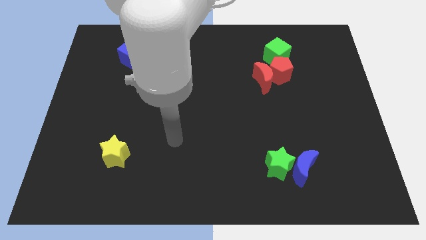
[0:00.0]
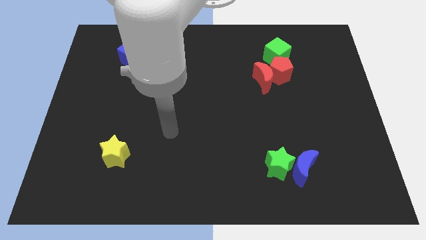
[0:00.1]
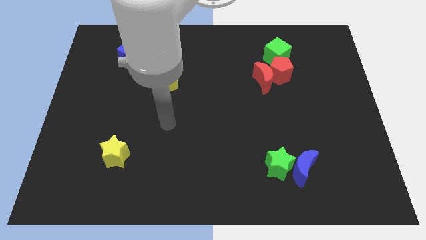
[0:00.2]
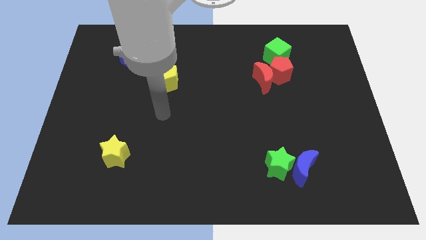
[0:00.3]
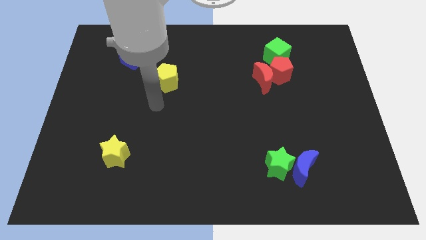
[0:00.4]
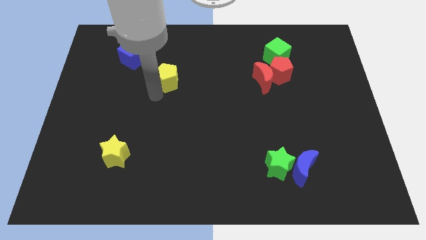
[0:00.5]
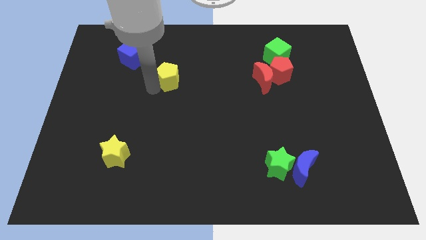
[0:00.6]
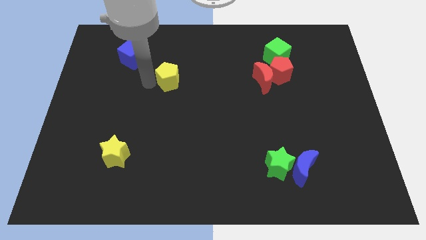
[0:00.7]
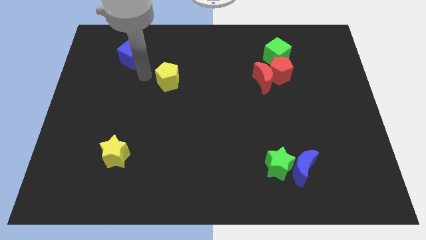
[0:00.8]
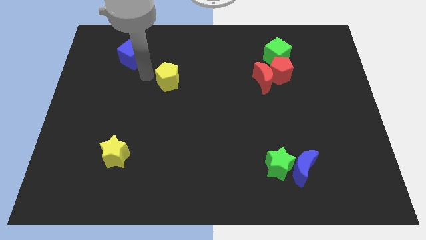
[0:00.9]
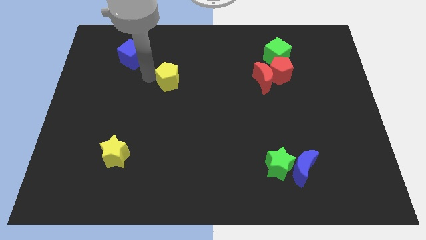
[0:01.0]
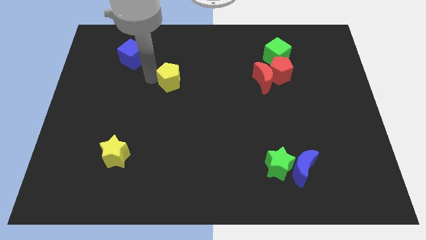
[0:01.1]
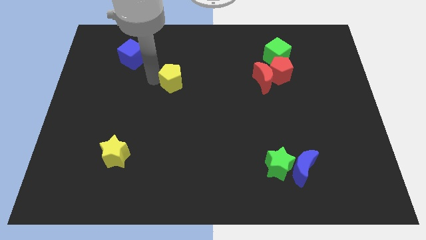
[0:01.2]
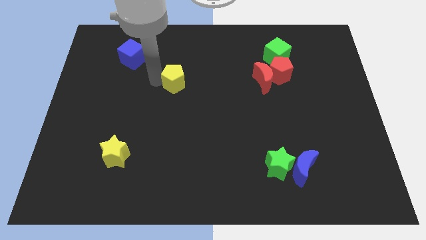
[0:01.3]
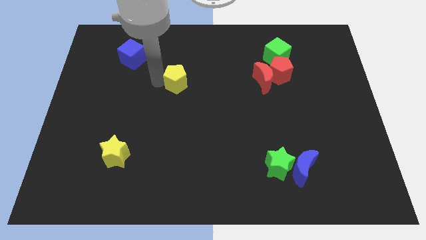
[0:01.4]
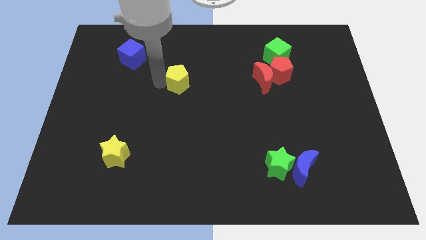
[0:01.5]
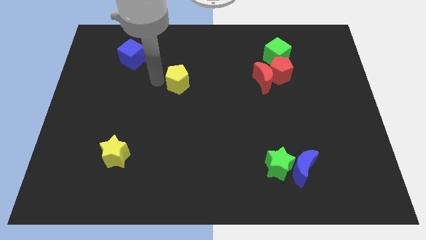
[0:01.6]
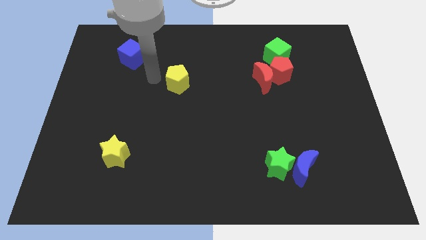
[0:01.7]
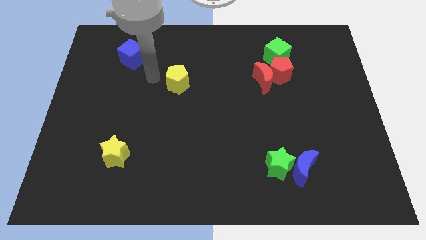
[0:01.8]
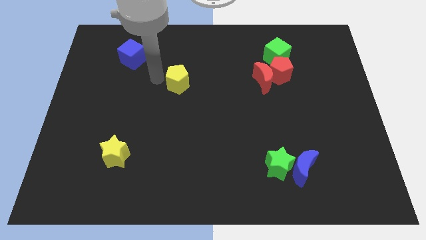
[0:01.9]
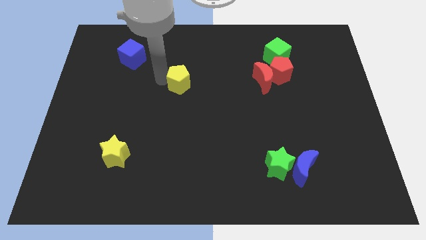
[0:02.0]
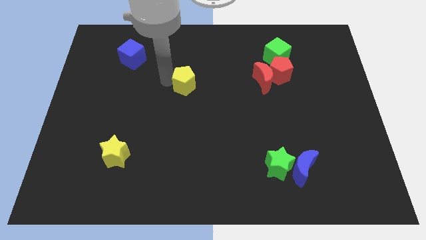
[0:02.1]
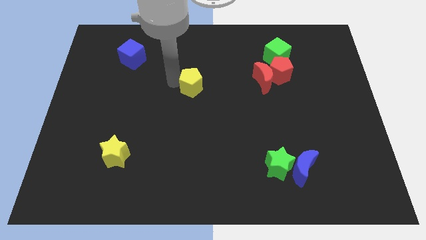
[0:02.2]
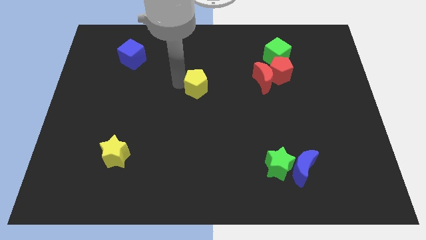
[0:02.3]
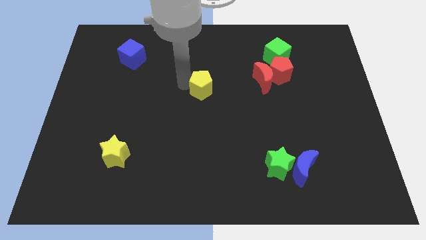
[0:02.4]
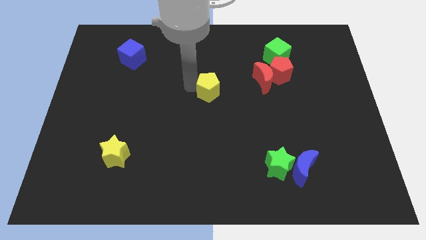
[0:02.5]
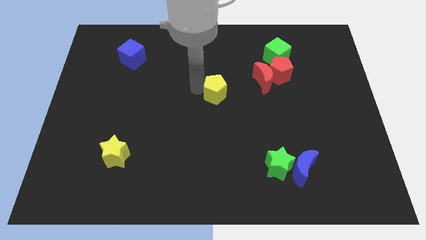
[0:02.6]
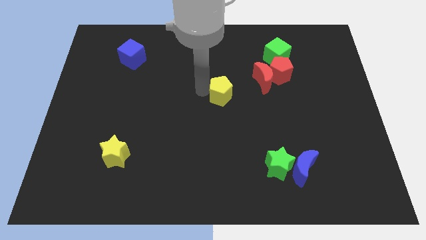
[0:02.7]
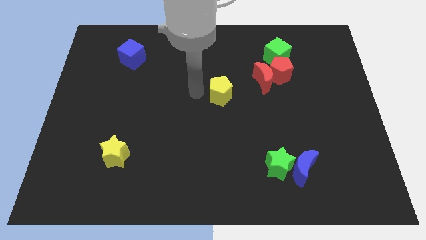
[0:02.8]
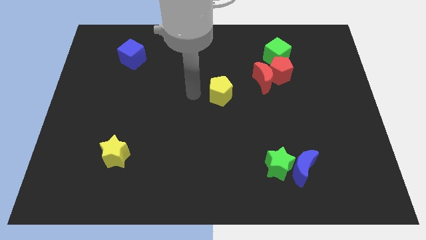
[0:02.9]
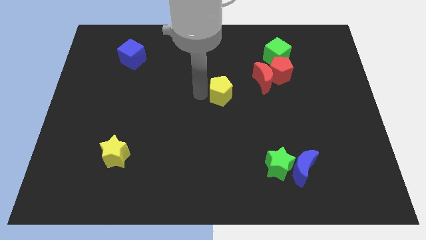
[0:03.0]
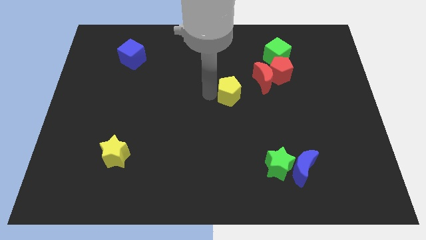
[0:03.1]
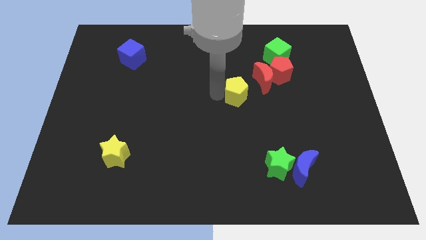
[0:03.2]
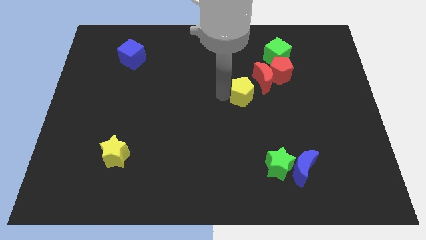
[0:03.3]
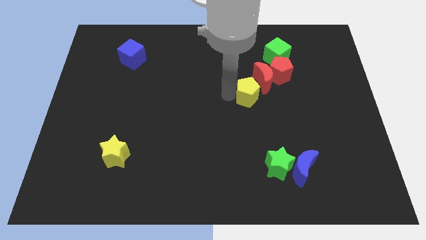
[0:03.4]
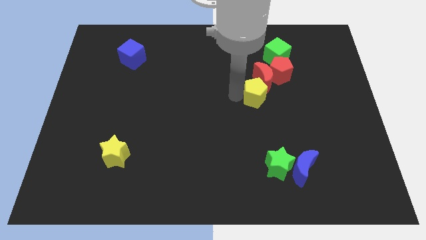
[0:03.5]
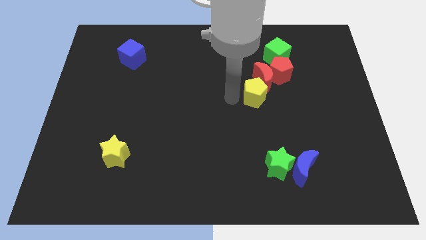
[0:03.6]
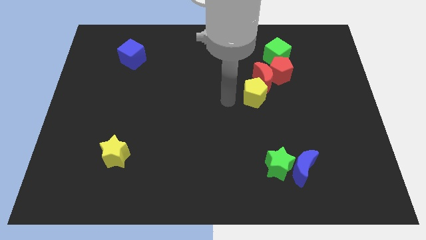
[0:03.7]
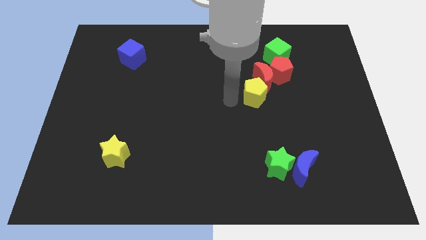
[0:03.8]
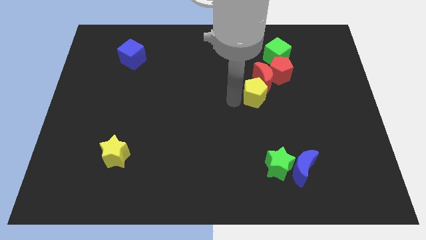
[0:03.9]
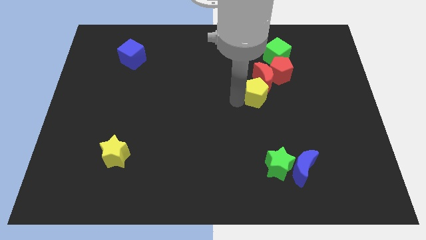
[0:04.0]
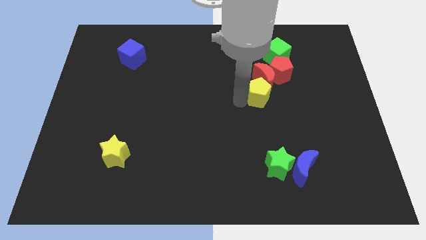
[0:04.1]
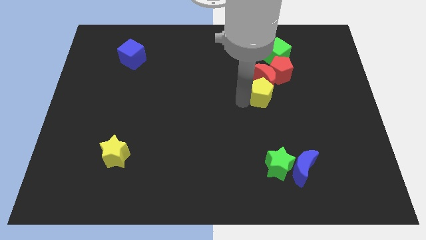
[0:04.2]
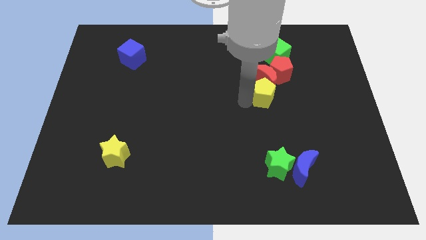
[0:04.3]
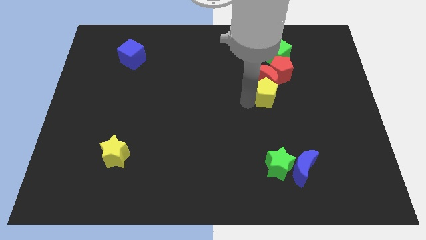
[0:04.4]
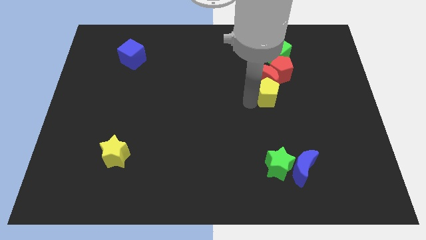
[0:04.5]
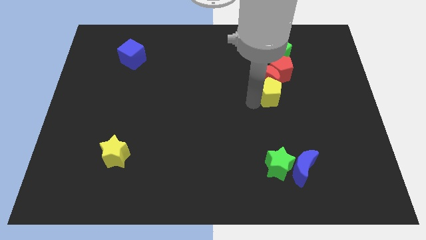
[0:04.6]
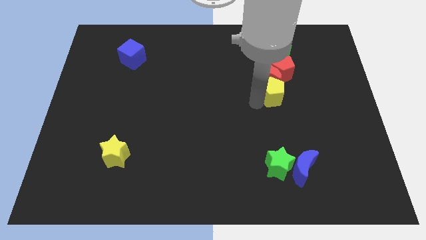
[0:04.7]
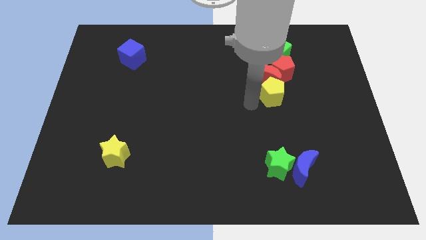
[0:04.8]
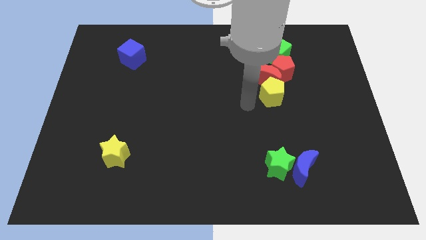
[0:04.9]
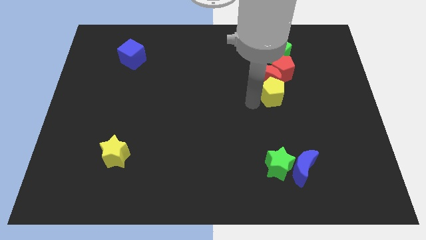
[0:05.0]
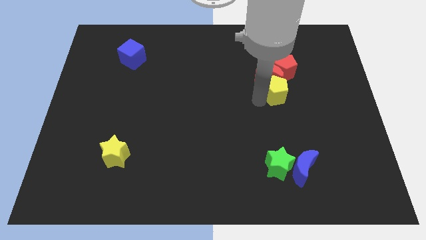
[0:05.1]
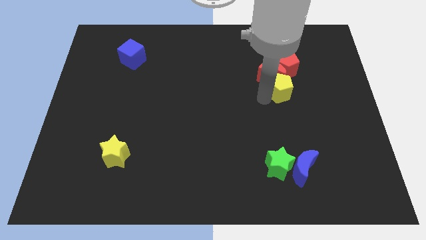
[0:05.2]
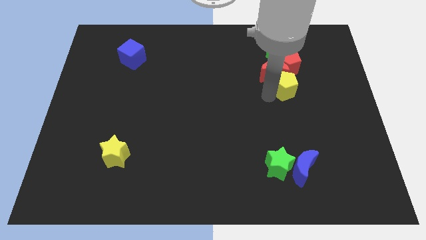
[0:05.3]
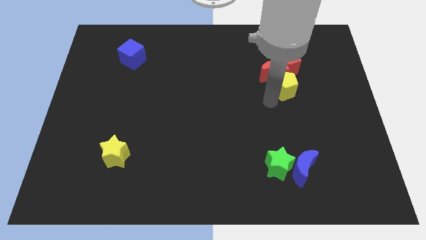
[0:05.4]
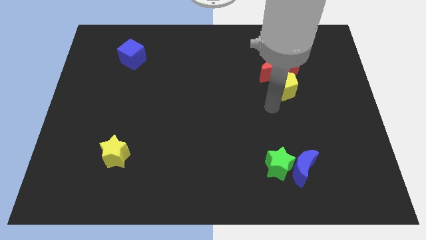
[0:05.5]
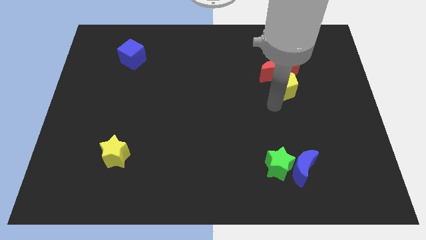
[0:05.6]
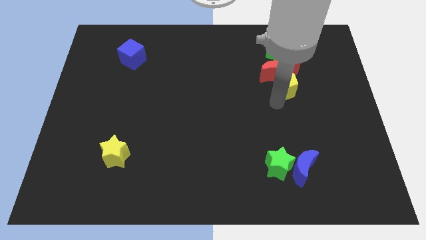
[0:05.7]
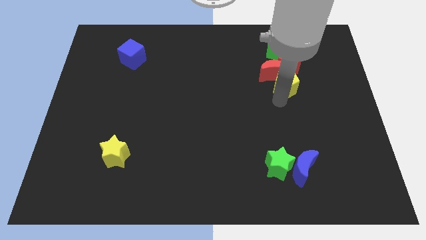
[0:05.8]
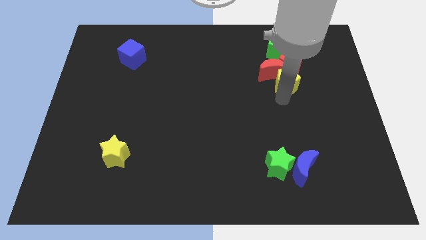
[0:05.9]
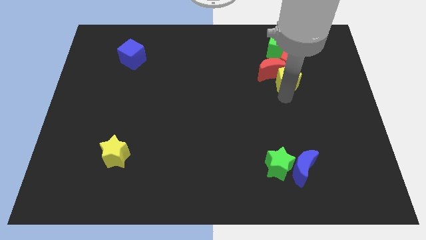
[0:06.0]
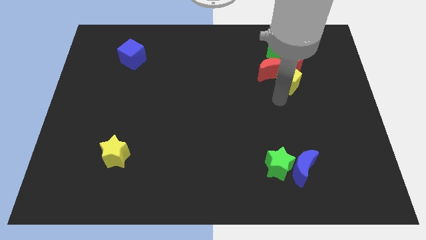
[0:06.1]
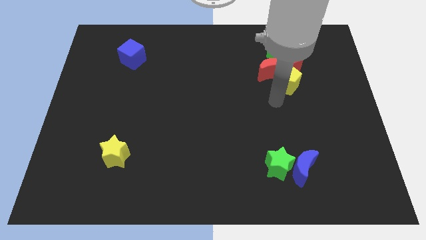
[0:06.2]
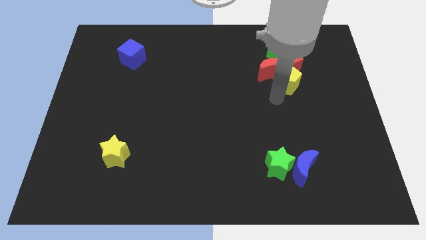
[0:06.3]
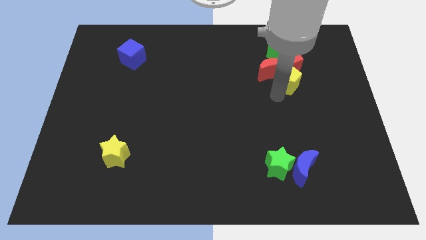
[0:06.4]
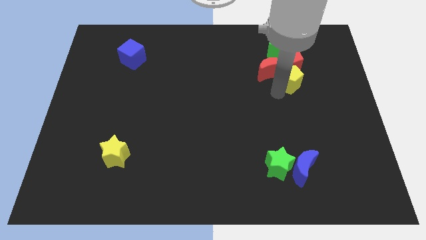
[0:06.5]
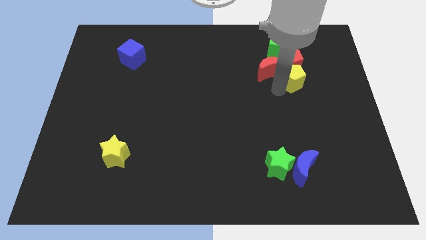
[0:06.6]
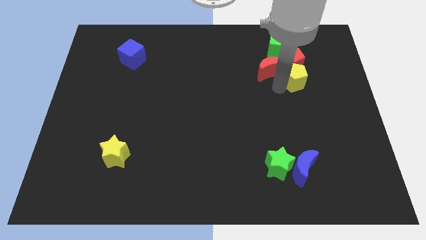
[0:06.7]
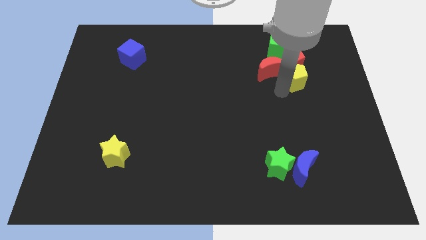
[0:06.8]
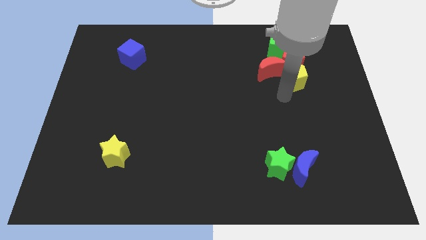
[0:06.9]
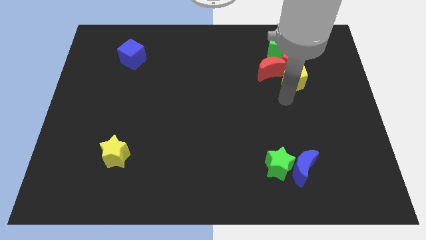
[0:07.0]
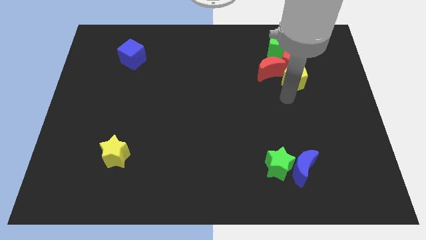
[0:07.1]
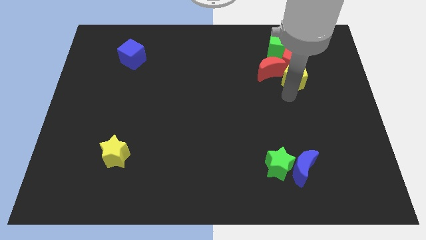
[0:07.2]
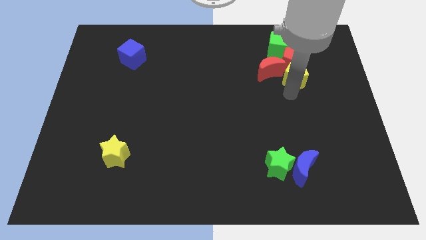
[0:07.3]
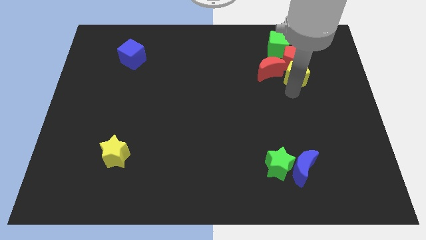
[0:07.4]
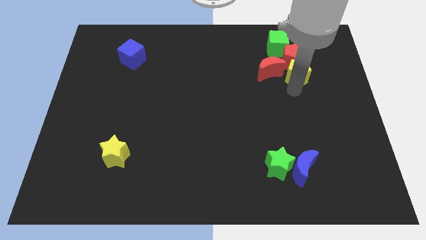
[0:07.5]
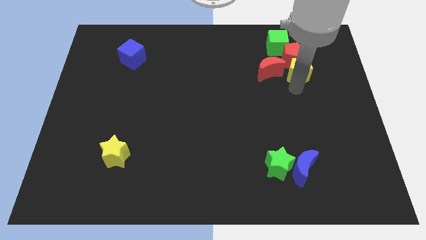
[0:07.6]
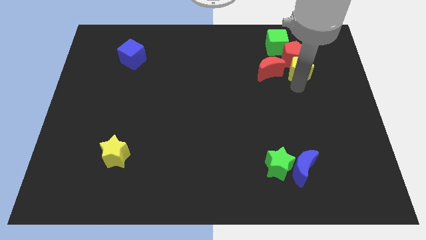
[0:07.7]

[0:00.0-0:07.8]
move the yellow pentagon diagonally down and to the right of the green cube
